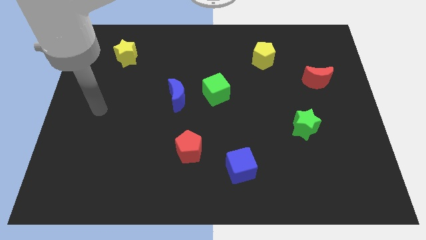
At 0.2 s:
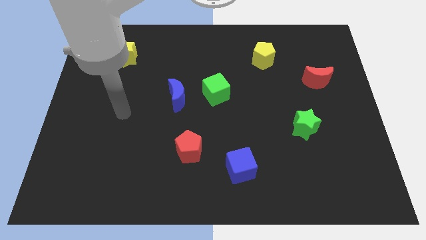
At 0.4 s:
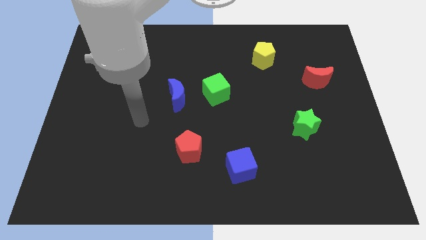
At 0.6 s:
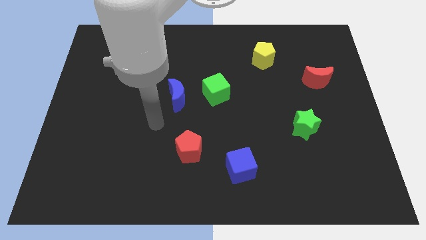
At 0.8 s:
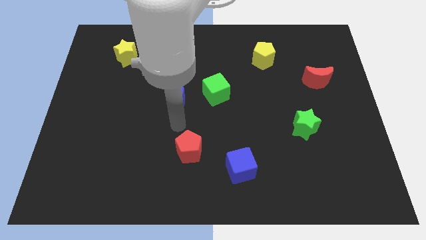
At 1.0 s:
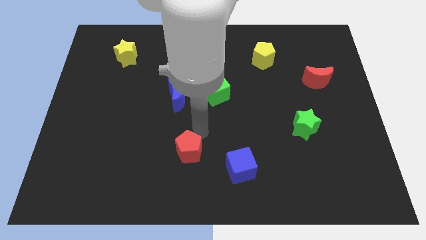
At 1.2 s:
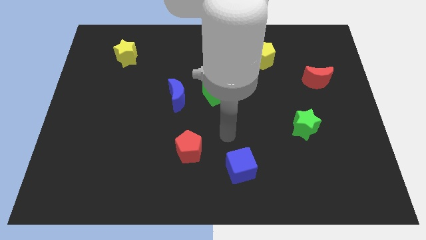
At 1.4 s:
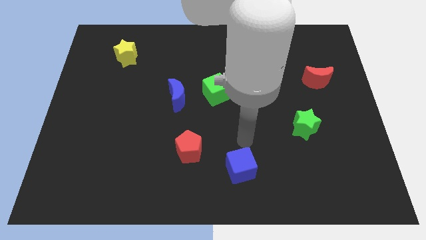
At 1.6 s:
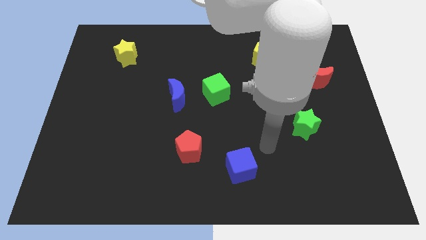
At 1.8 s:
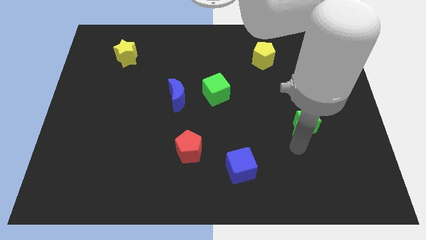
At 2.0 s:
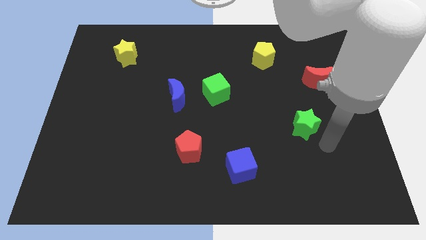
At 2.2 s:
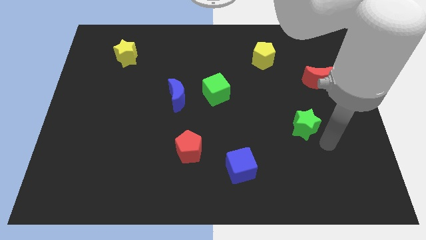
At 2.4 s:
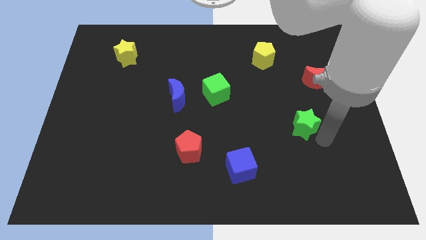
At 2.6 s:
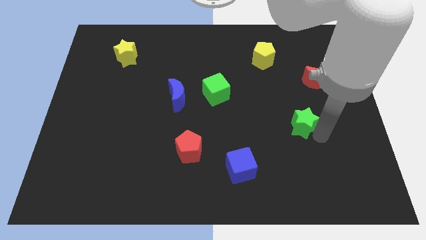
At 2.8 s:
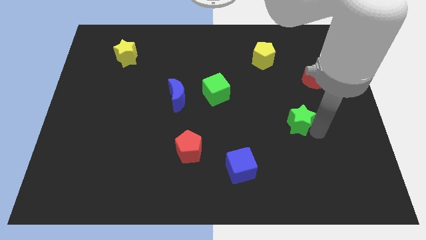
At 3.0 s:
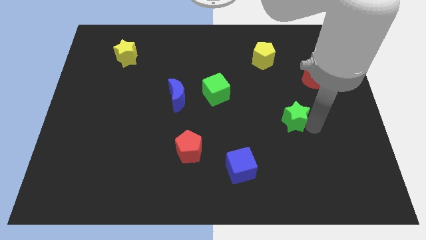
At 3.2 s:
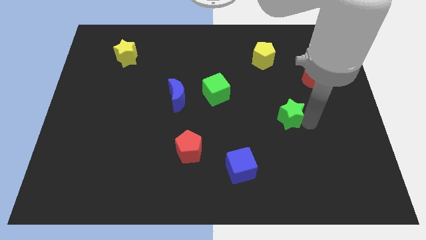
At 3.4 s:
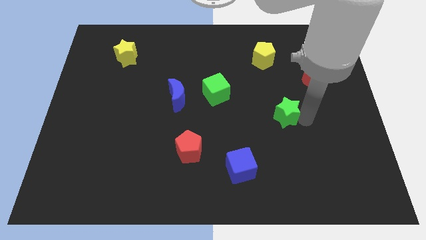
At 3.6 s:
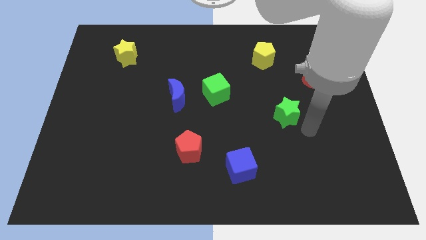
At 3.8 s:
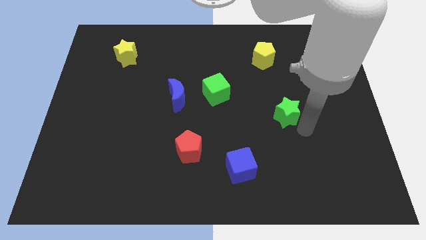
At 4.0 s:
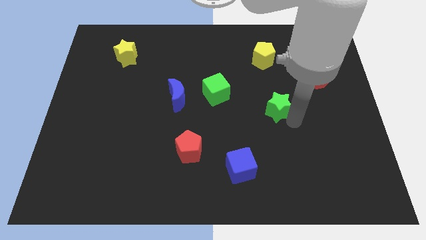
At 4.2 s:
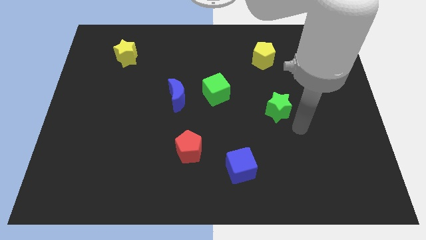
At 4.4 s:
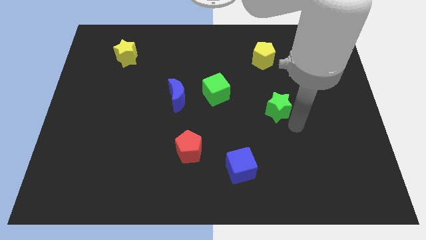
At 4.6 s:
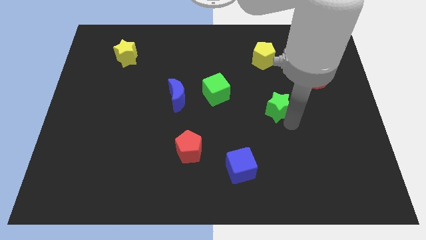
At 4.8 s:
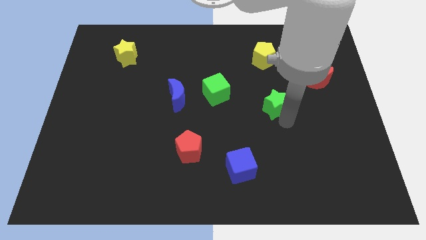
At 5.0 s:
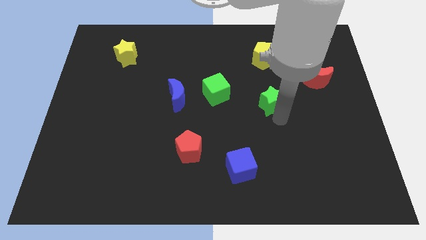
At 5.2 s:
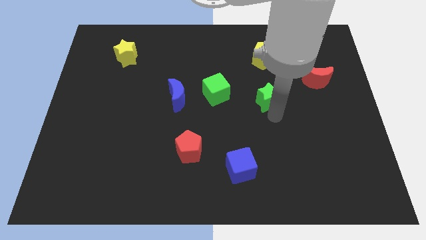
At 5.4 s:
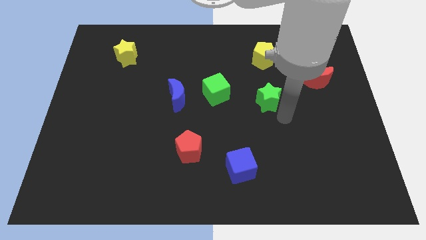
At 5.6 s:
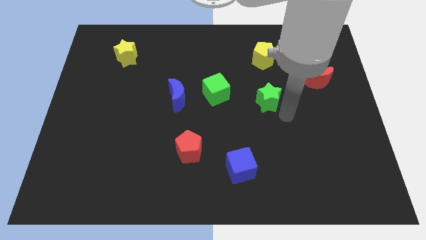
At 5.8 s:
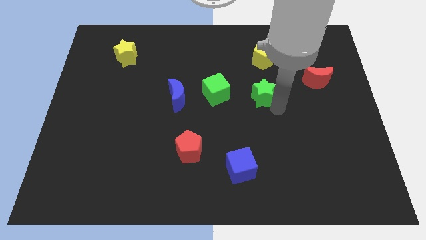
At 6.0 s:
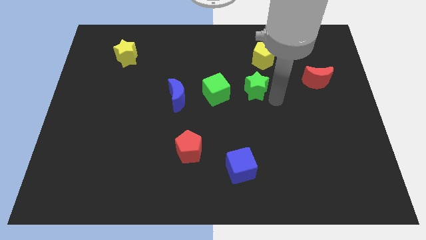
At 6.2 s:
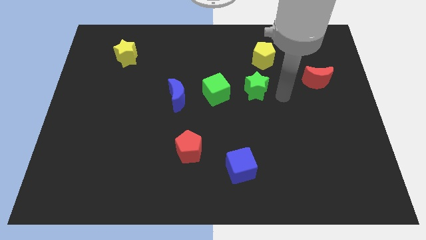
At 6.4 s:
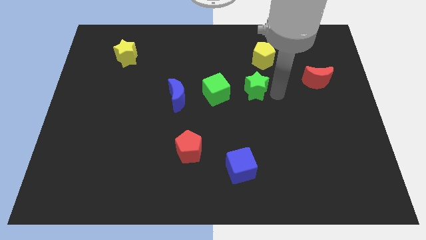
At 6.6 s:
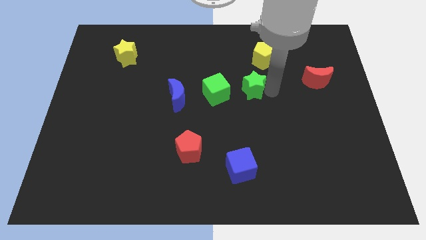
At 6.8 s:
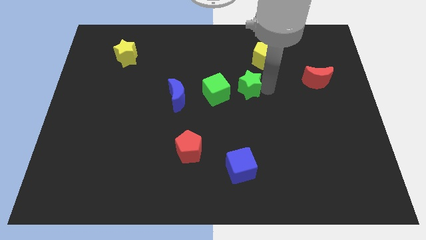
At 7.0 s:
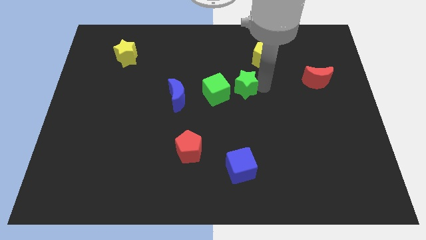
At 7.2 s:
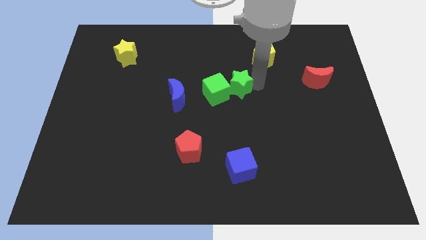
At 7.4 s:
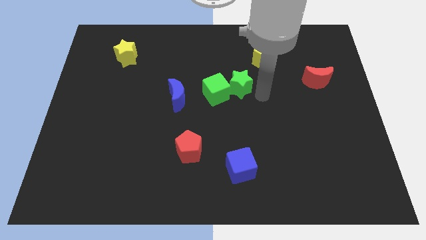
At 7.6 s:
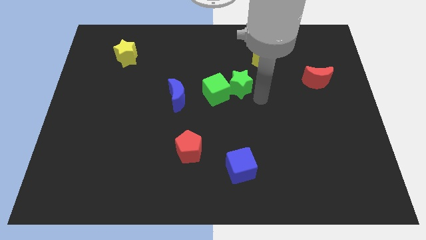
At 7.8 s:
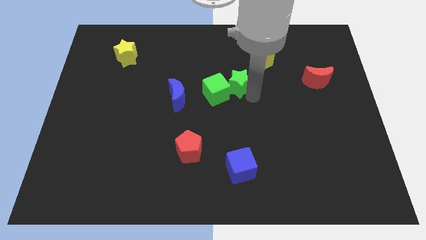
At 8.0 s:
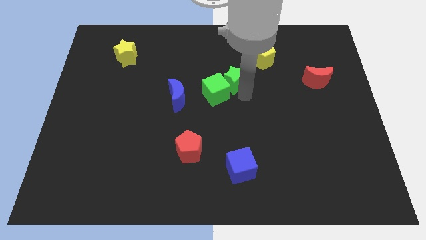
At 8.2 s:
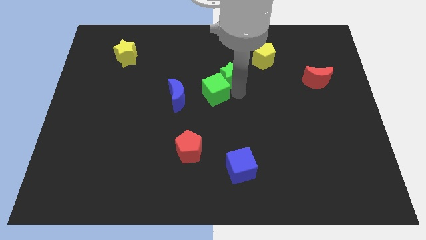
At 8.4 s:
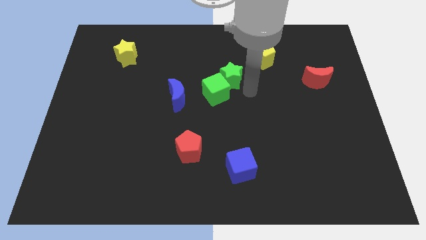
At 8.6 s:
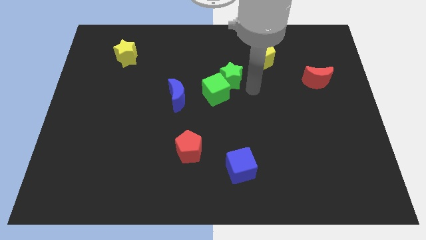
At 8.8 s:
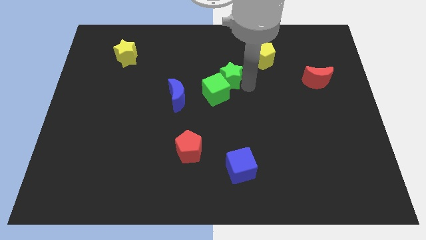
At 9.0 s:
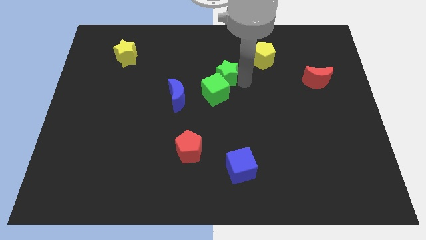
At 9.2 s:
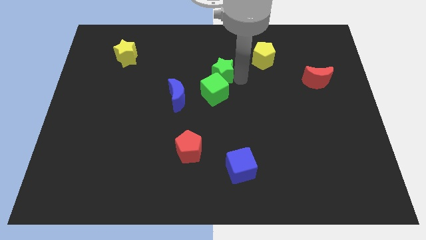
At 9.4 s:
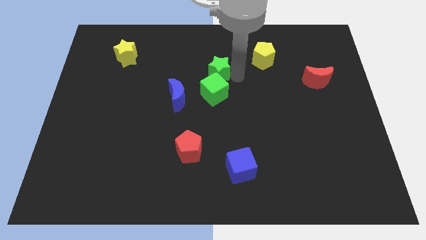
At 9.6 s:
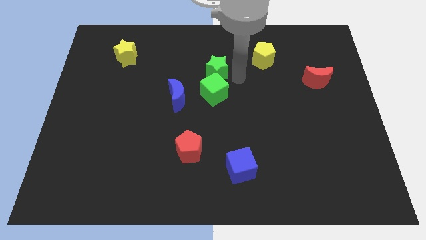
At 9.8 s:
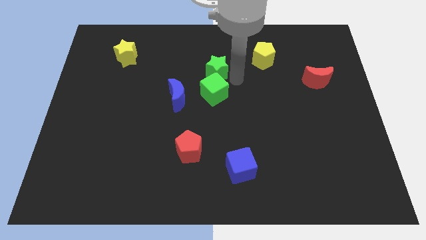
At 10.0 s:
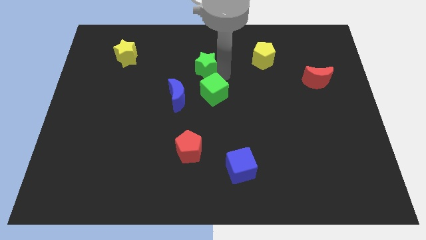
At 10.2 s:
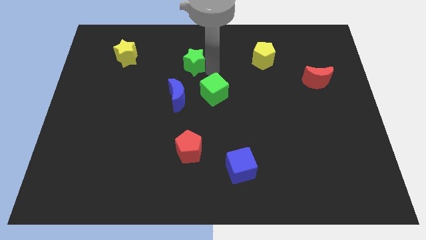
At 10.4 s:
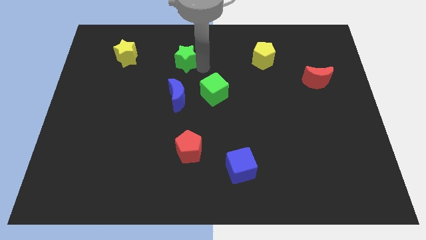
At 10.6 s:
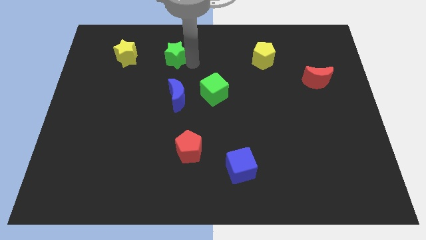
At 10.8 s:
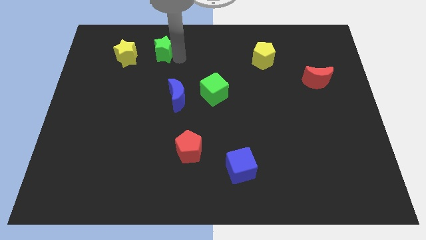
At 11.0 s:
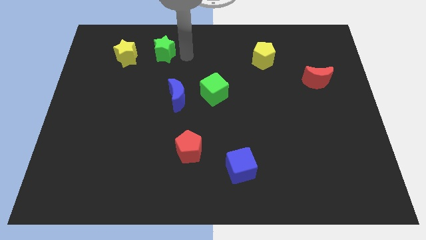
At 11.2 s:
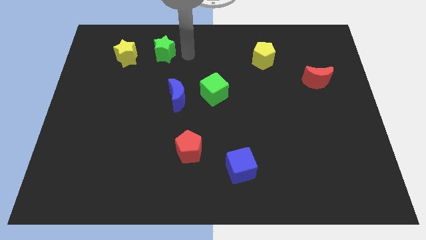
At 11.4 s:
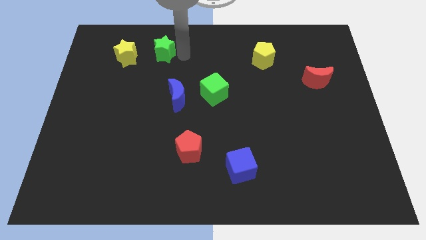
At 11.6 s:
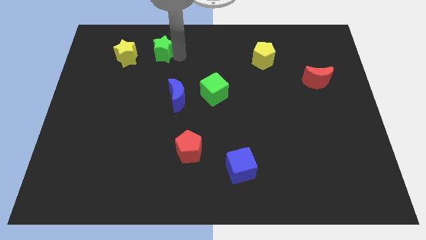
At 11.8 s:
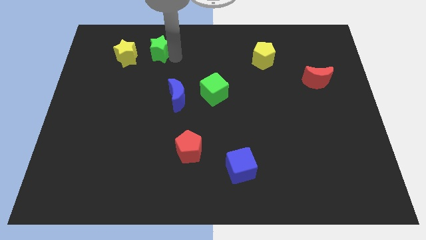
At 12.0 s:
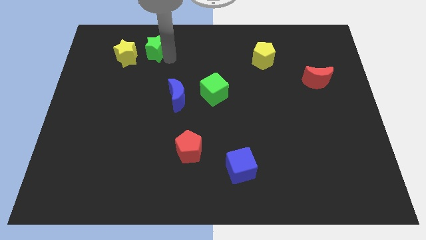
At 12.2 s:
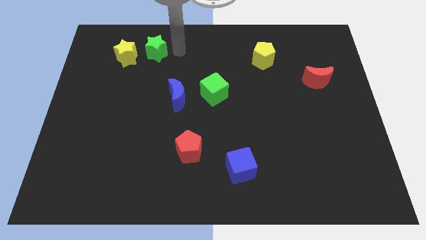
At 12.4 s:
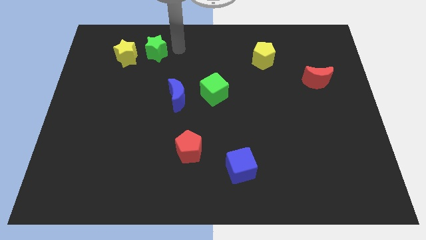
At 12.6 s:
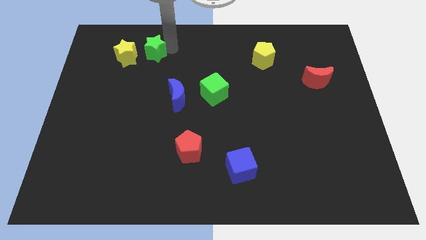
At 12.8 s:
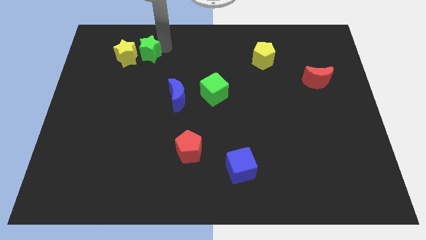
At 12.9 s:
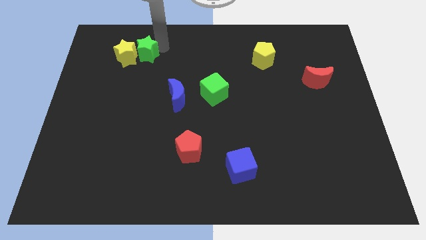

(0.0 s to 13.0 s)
put the green star to the yellow star

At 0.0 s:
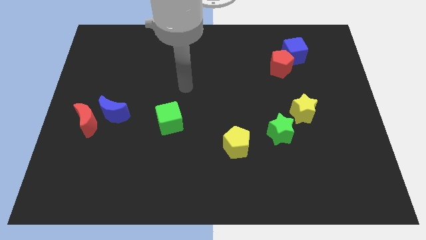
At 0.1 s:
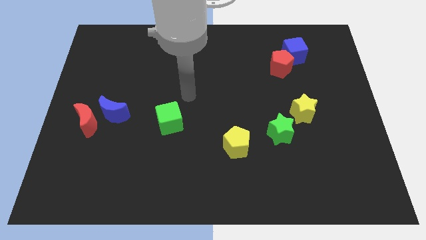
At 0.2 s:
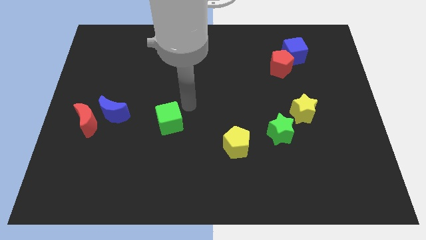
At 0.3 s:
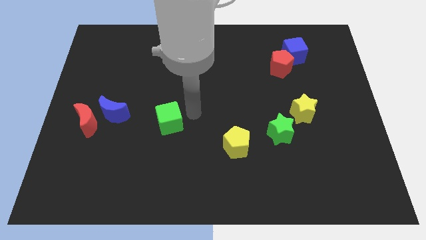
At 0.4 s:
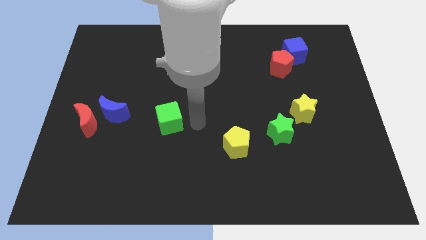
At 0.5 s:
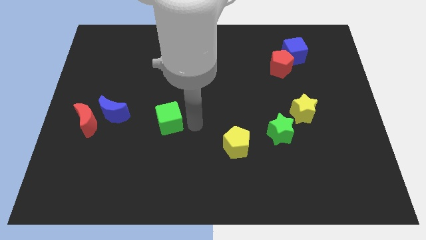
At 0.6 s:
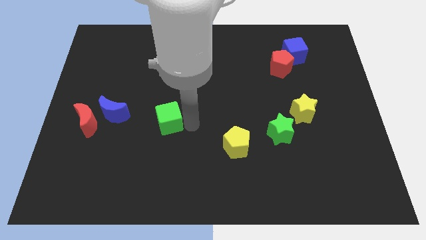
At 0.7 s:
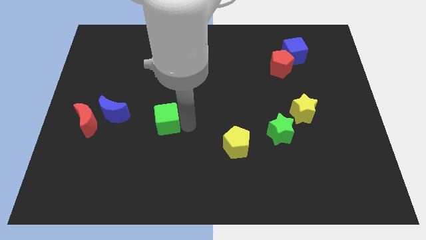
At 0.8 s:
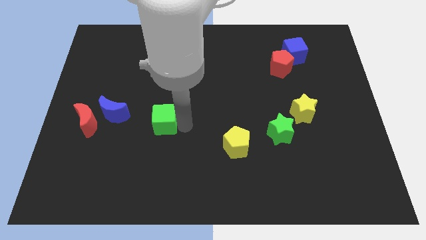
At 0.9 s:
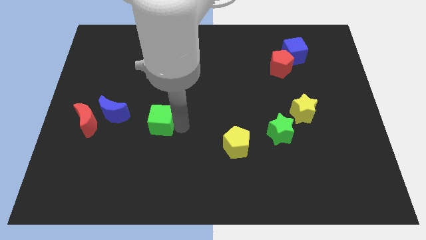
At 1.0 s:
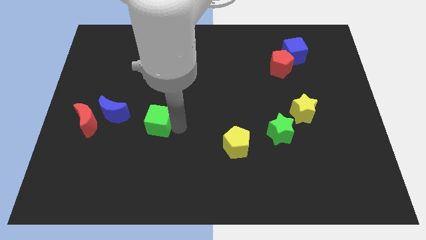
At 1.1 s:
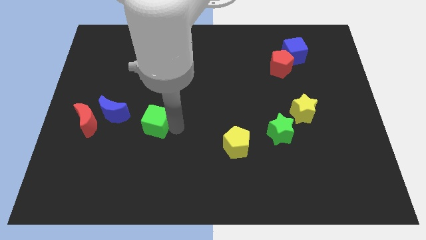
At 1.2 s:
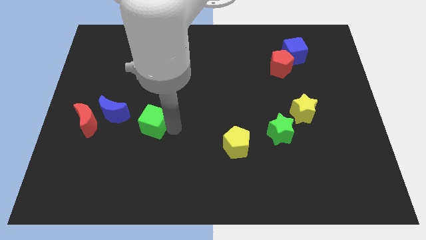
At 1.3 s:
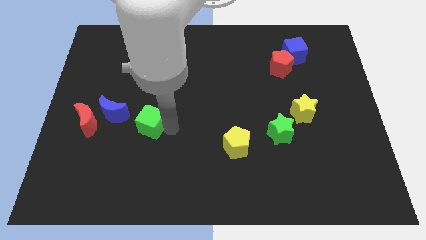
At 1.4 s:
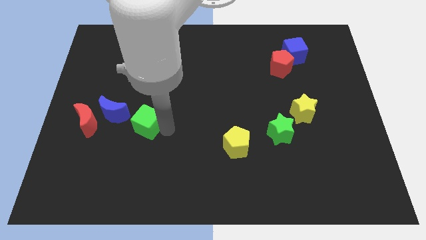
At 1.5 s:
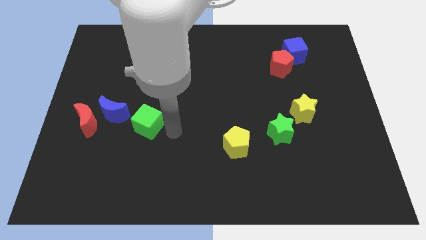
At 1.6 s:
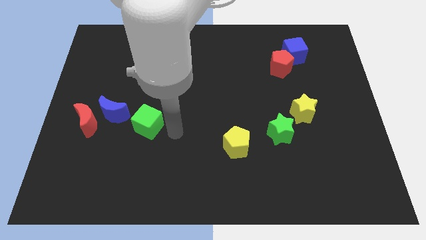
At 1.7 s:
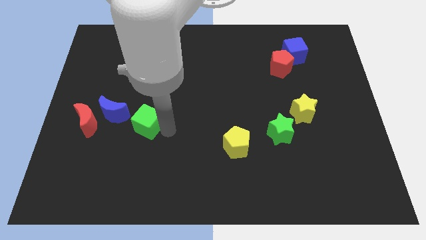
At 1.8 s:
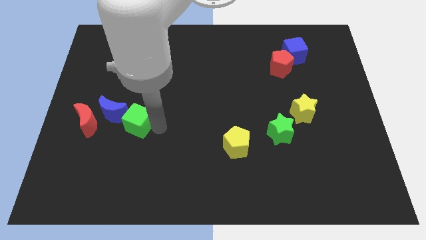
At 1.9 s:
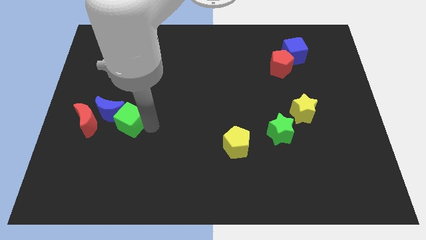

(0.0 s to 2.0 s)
push the green cube towards the blue moon
